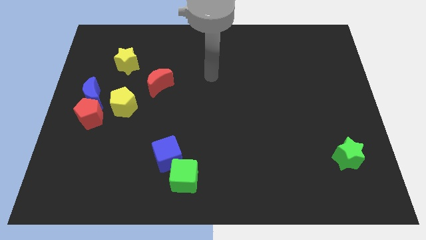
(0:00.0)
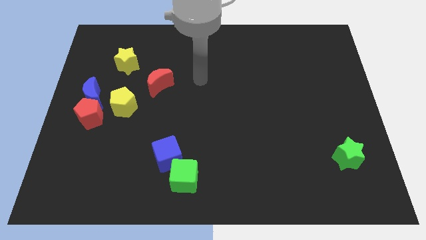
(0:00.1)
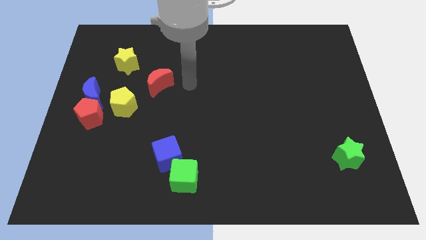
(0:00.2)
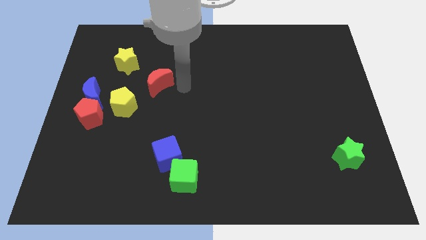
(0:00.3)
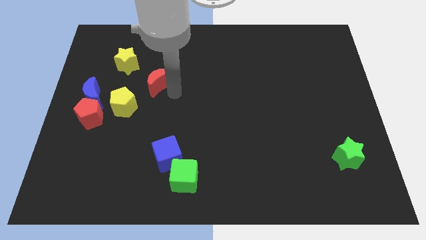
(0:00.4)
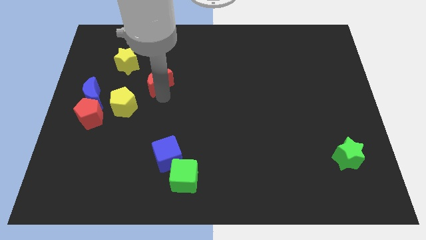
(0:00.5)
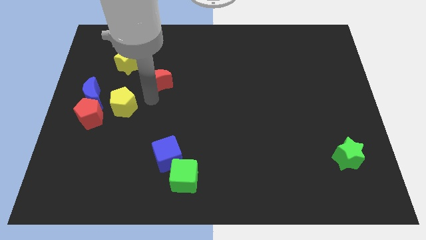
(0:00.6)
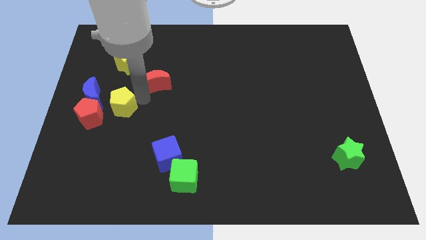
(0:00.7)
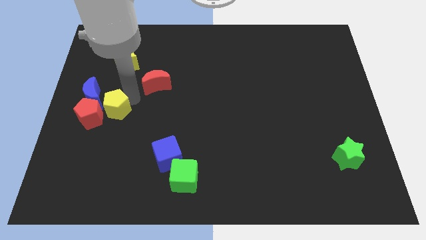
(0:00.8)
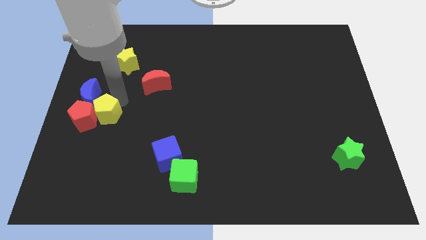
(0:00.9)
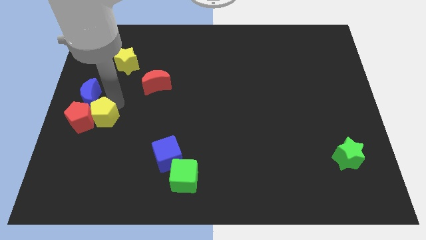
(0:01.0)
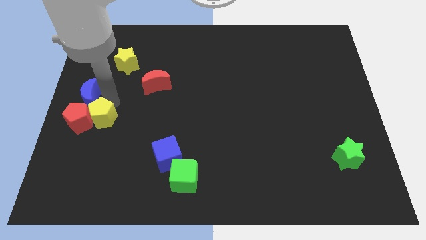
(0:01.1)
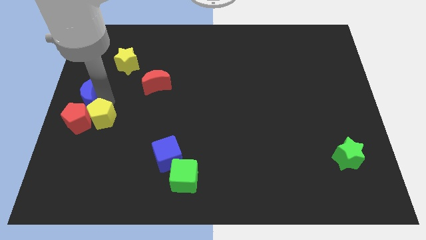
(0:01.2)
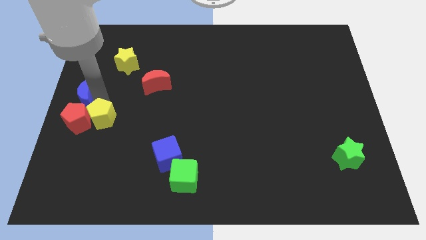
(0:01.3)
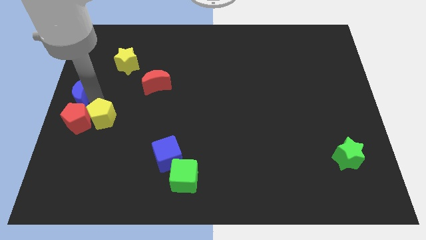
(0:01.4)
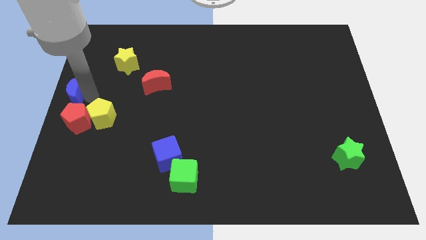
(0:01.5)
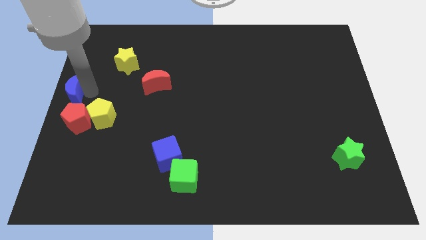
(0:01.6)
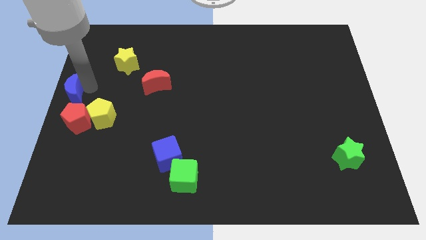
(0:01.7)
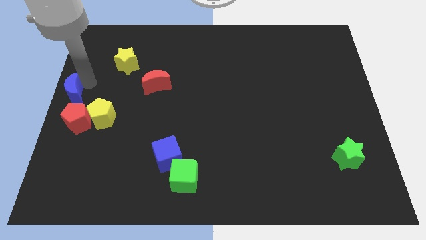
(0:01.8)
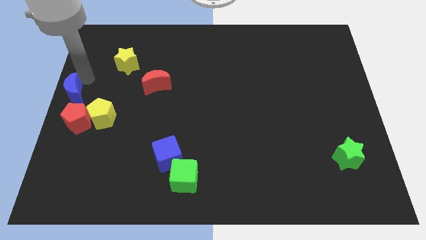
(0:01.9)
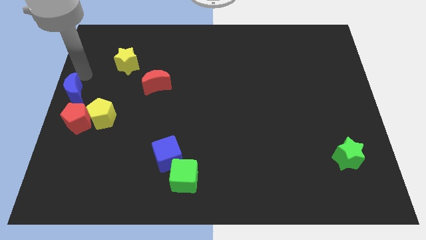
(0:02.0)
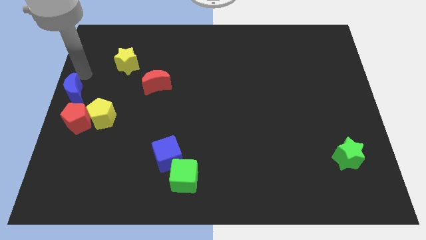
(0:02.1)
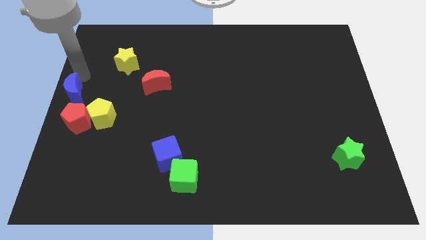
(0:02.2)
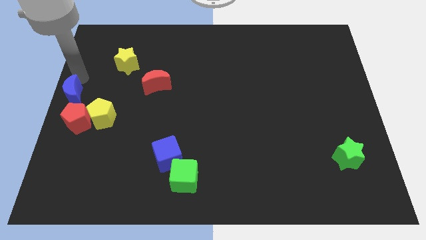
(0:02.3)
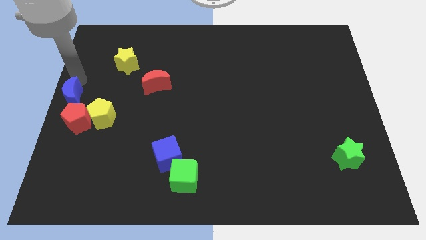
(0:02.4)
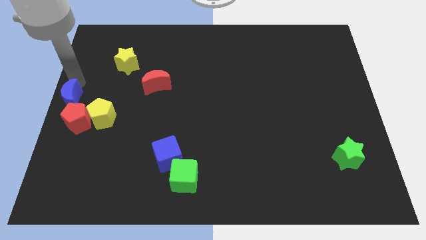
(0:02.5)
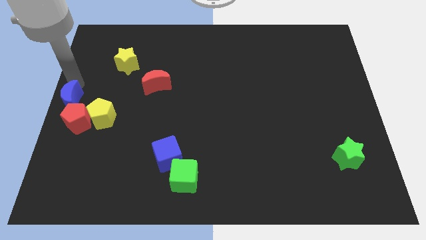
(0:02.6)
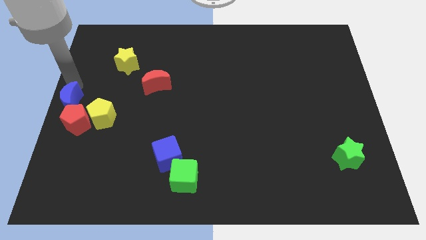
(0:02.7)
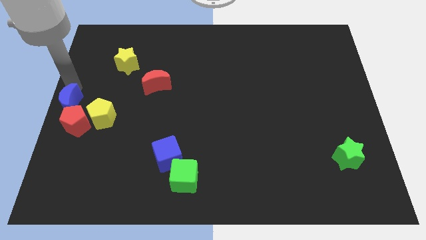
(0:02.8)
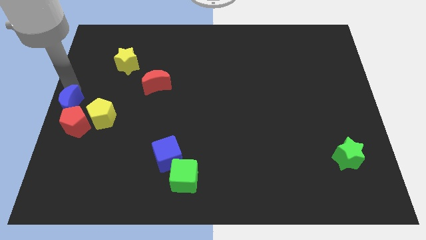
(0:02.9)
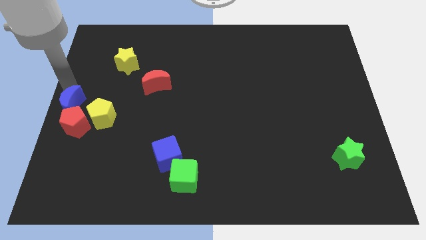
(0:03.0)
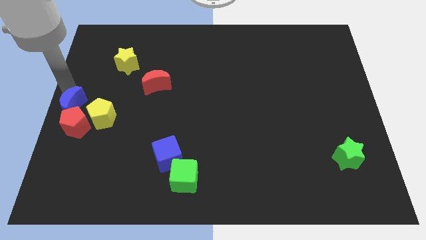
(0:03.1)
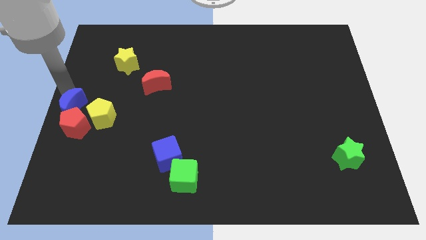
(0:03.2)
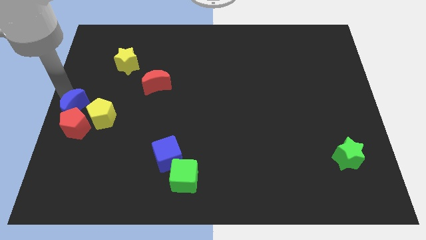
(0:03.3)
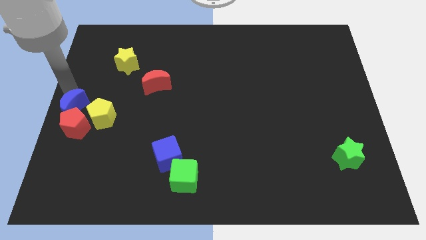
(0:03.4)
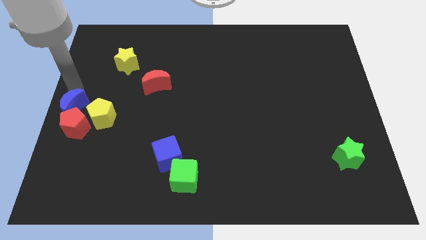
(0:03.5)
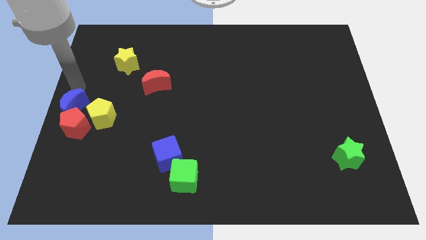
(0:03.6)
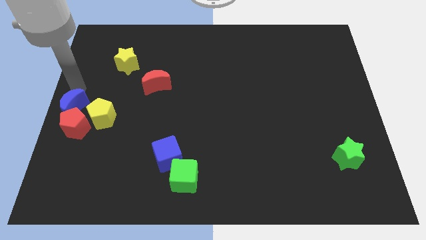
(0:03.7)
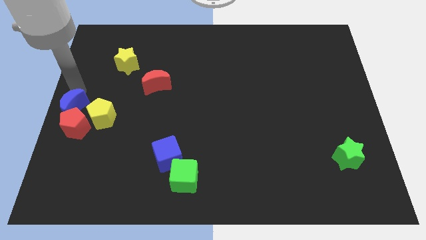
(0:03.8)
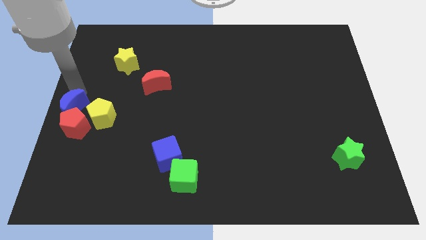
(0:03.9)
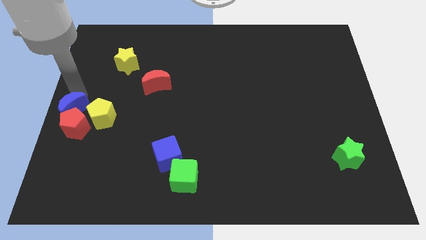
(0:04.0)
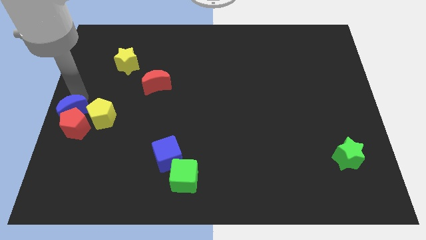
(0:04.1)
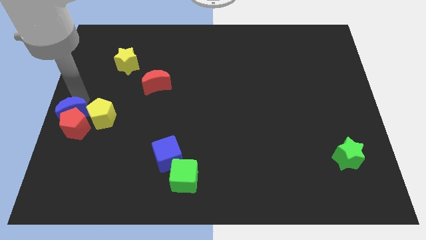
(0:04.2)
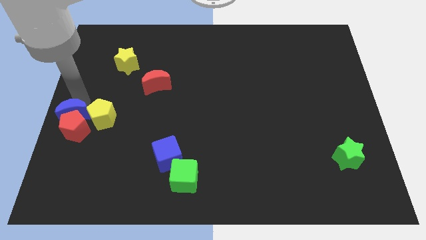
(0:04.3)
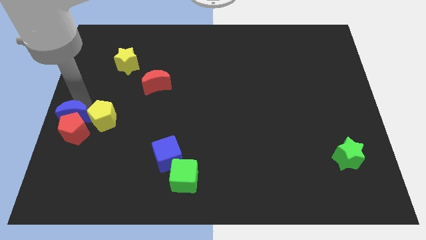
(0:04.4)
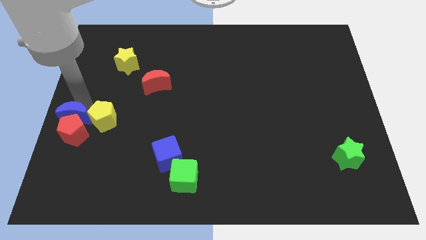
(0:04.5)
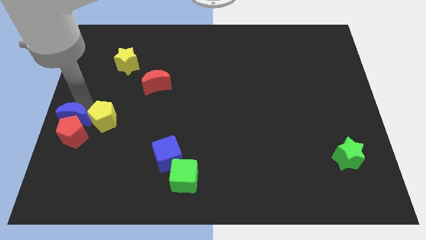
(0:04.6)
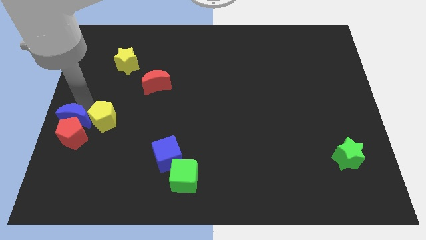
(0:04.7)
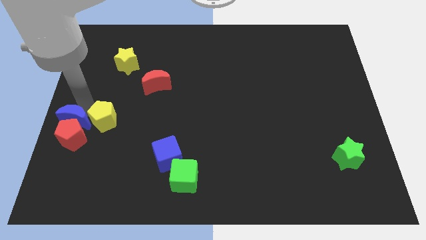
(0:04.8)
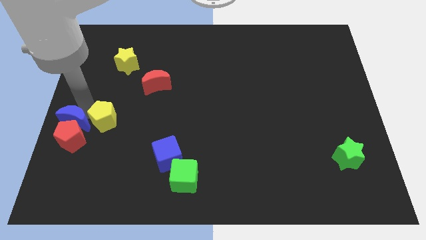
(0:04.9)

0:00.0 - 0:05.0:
move the blue moon downwards a bit

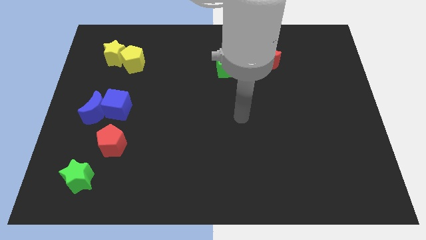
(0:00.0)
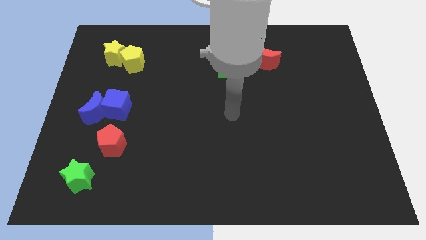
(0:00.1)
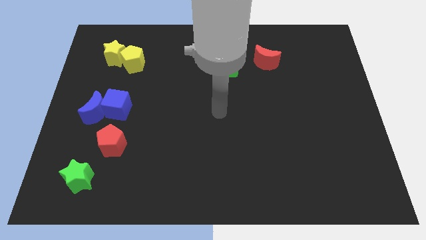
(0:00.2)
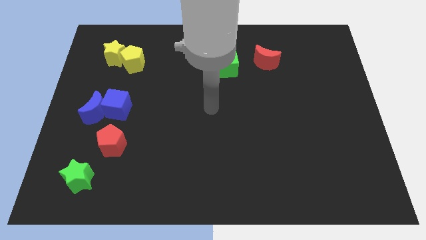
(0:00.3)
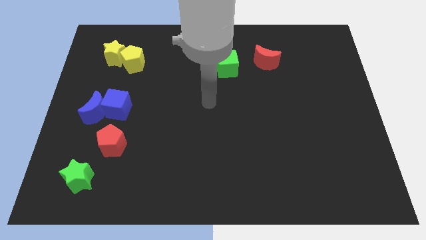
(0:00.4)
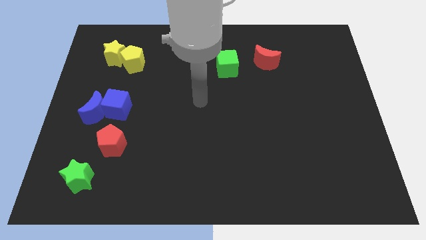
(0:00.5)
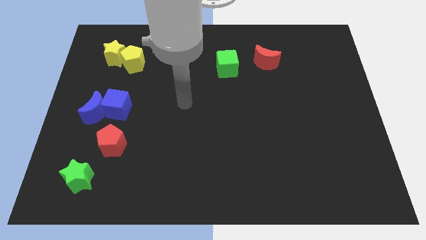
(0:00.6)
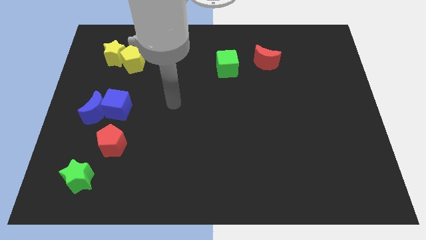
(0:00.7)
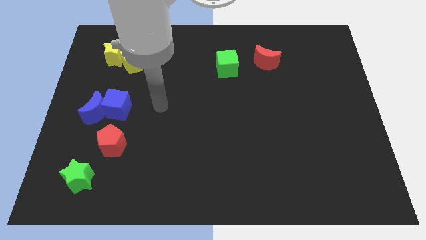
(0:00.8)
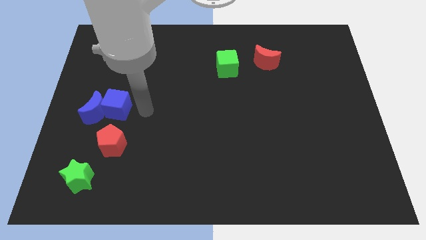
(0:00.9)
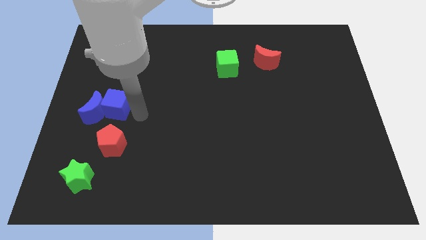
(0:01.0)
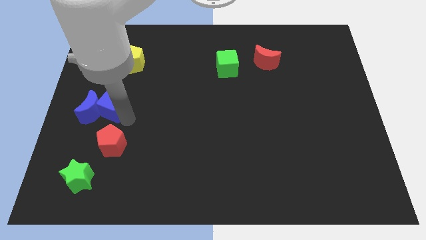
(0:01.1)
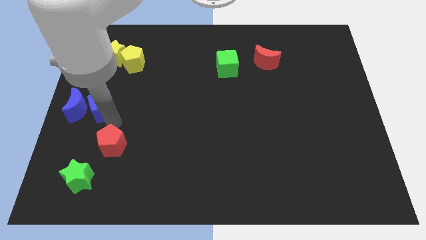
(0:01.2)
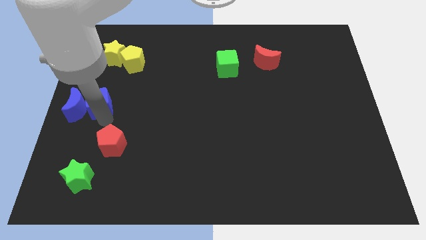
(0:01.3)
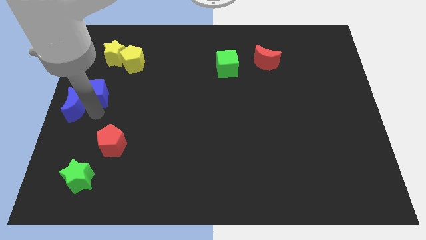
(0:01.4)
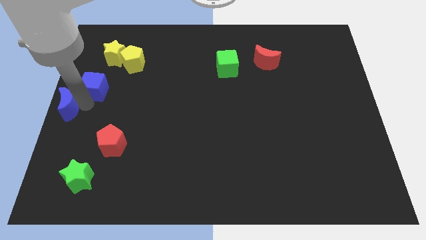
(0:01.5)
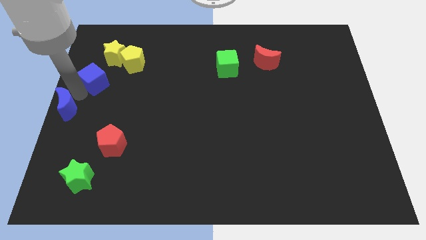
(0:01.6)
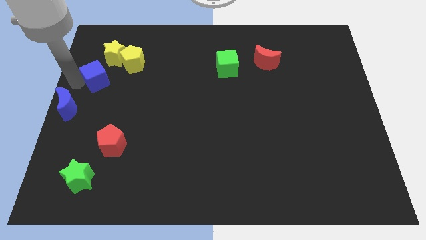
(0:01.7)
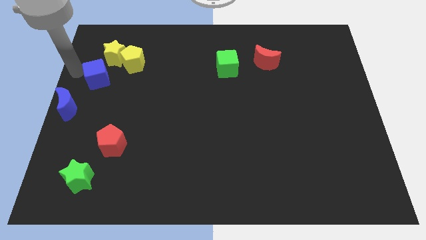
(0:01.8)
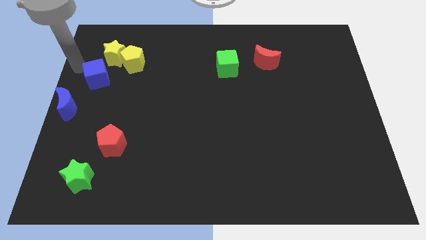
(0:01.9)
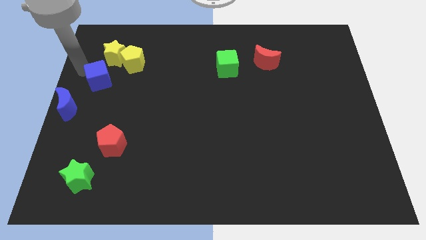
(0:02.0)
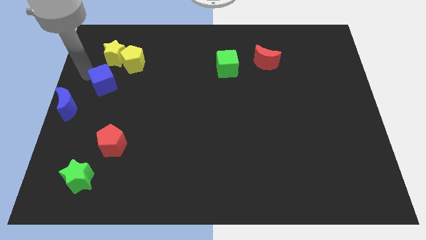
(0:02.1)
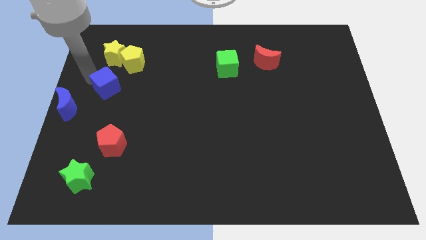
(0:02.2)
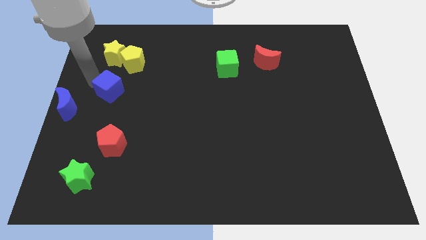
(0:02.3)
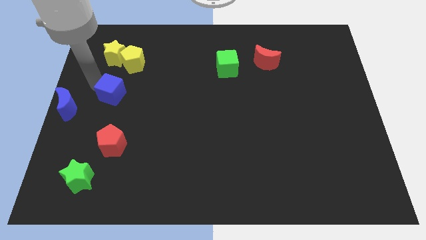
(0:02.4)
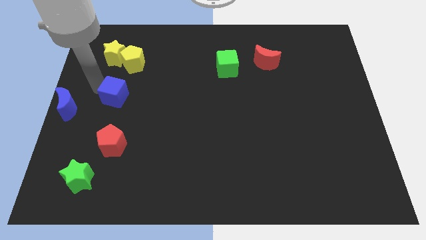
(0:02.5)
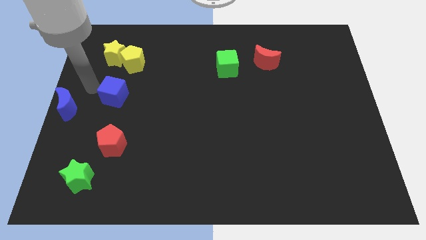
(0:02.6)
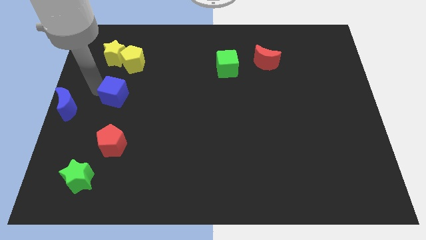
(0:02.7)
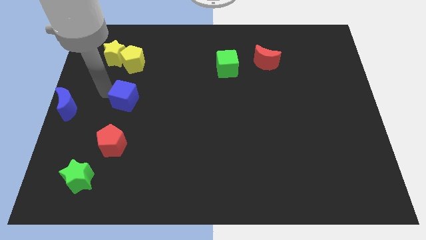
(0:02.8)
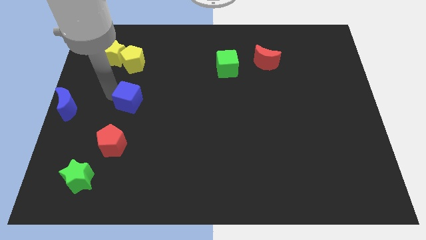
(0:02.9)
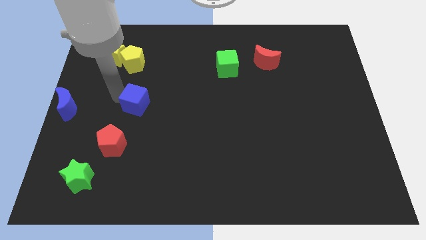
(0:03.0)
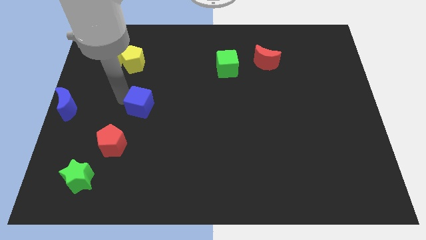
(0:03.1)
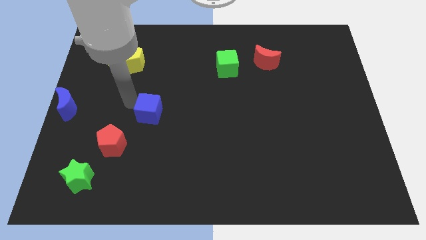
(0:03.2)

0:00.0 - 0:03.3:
slide the blue cube somewhat to the right
